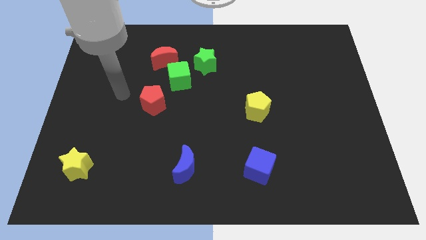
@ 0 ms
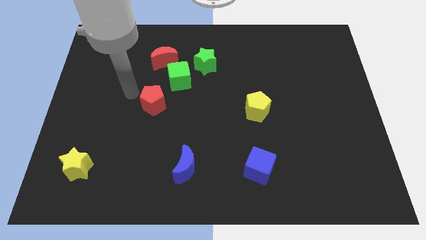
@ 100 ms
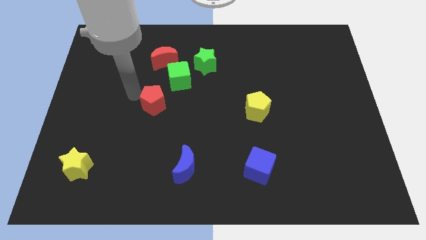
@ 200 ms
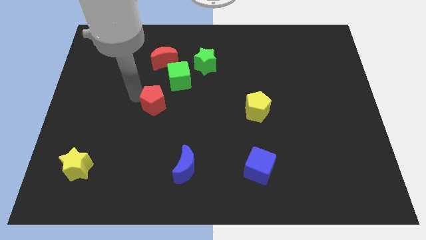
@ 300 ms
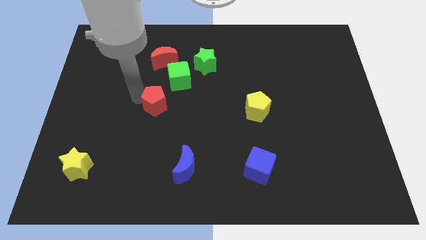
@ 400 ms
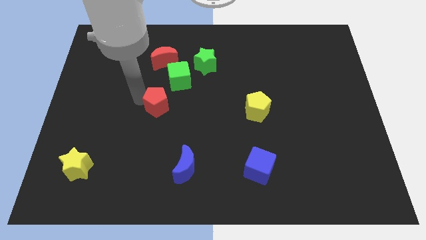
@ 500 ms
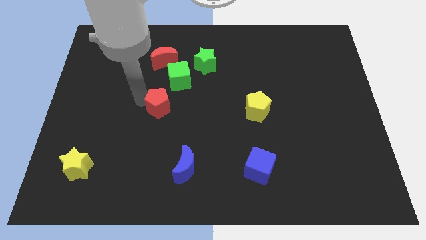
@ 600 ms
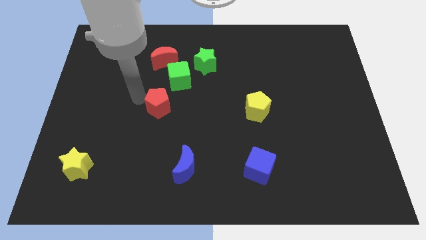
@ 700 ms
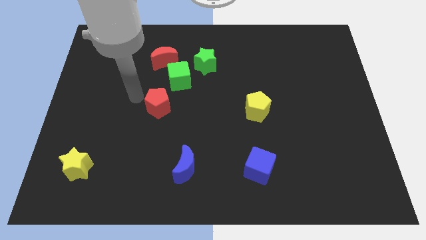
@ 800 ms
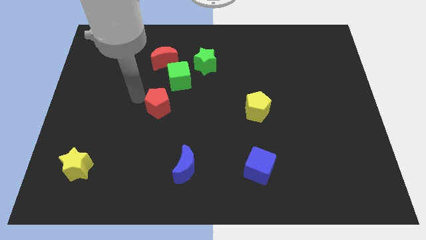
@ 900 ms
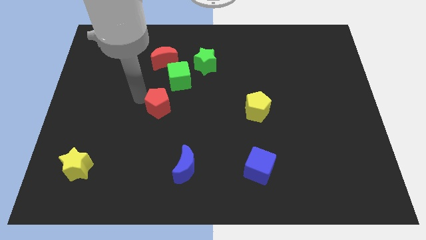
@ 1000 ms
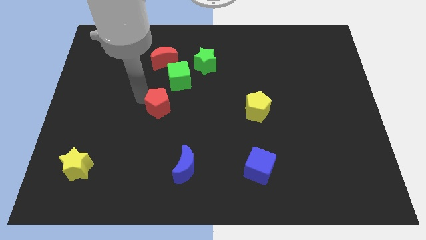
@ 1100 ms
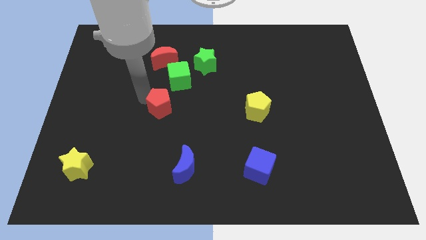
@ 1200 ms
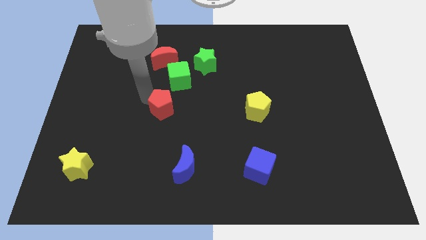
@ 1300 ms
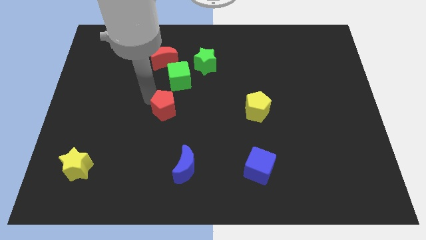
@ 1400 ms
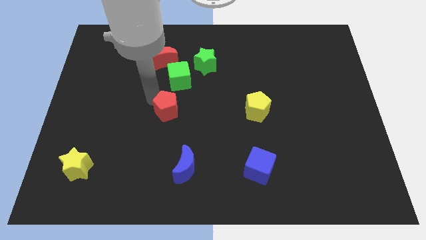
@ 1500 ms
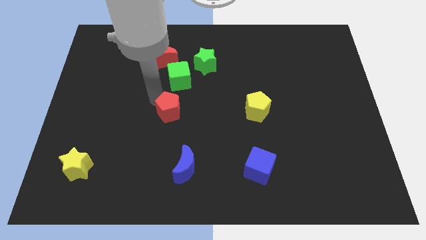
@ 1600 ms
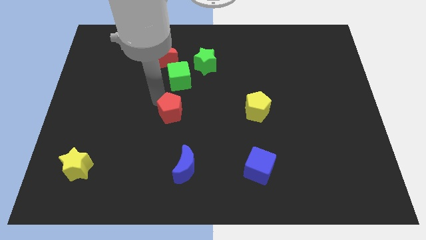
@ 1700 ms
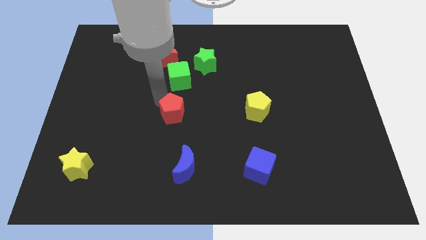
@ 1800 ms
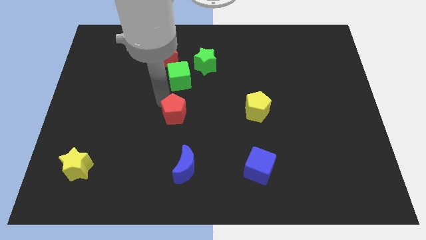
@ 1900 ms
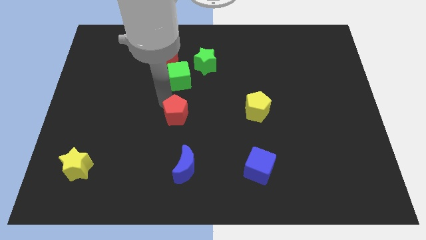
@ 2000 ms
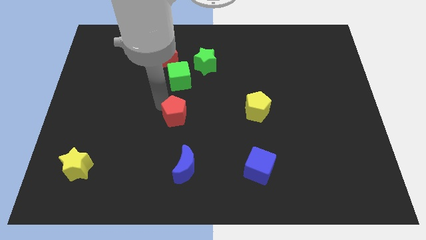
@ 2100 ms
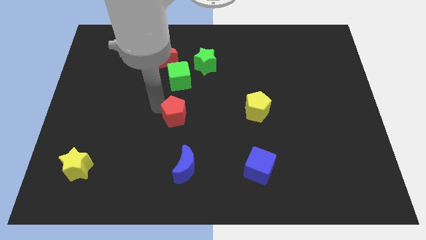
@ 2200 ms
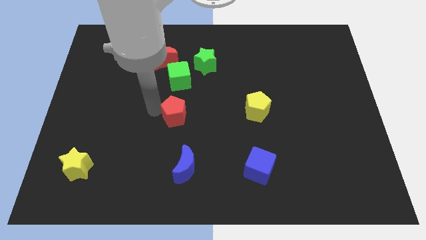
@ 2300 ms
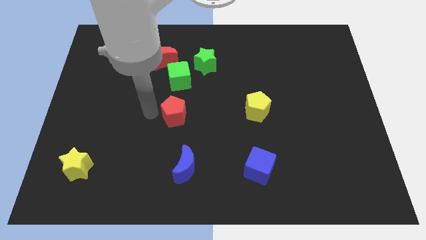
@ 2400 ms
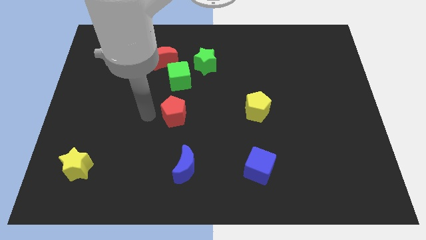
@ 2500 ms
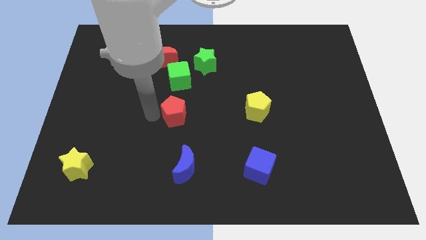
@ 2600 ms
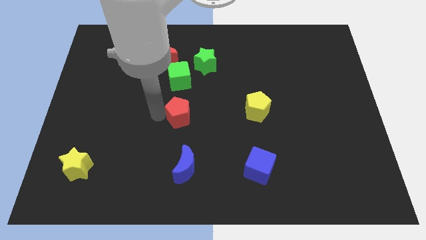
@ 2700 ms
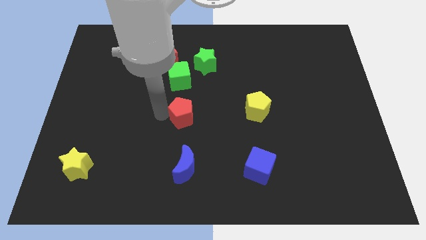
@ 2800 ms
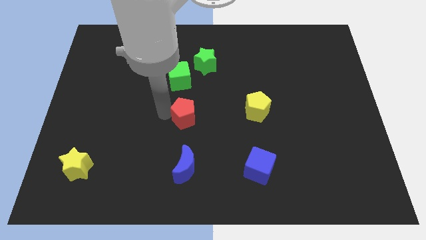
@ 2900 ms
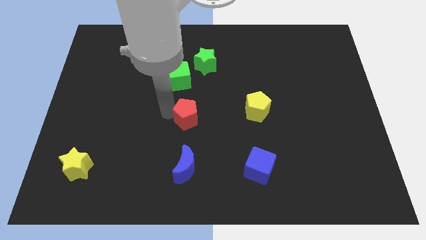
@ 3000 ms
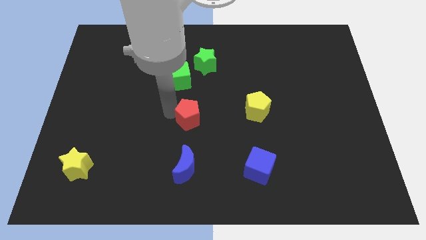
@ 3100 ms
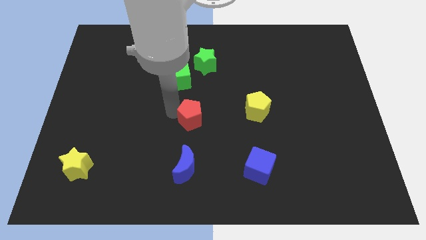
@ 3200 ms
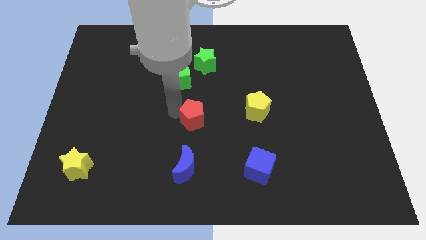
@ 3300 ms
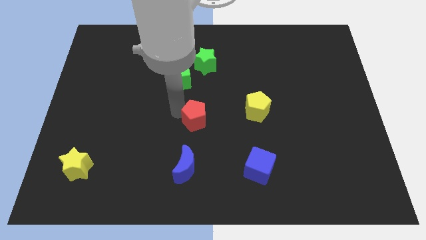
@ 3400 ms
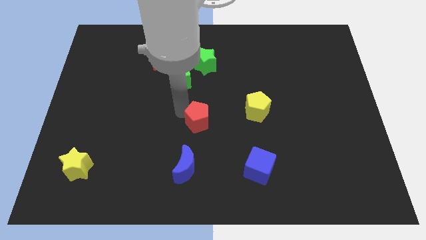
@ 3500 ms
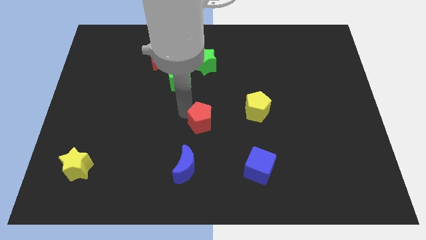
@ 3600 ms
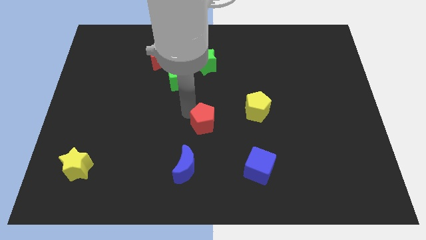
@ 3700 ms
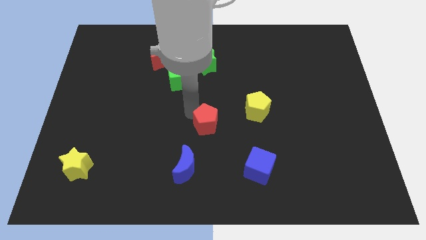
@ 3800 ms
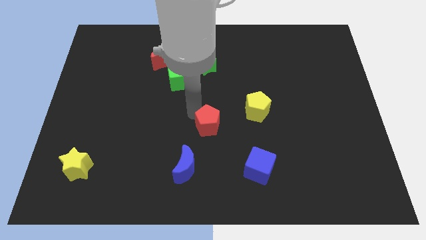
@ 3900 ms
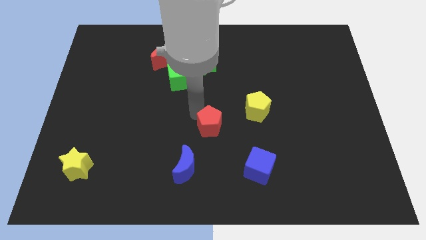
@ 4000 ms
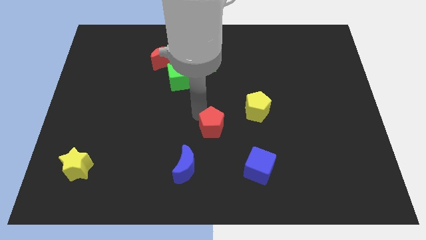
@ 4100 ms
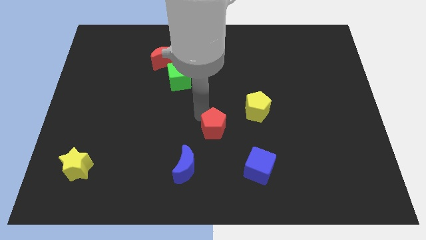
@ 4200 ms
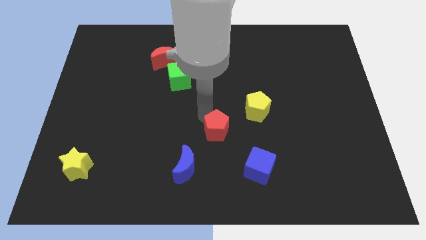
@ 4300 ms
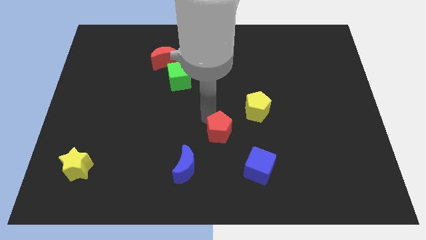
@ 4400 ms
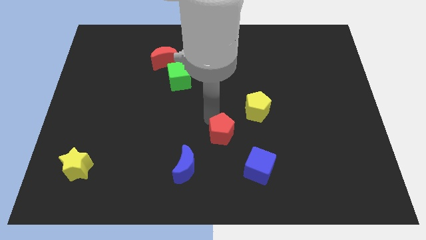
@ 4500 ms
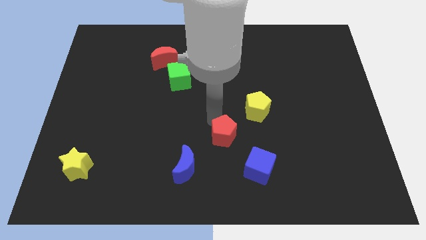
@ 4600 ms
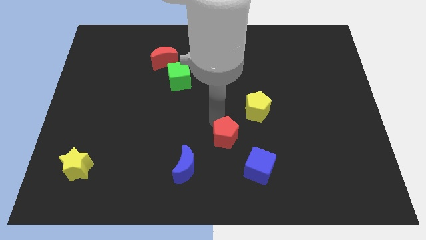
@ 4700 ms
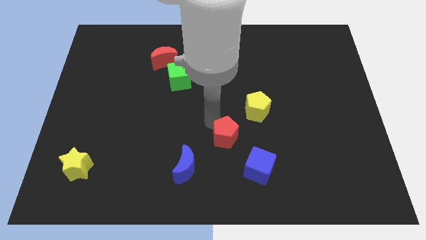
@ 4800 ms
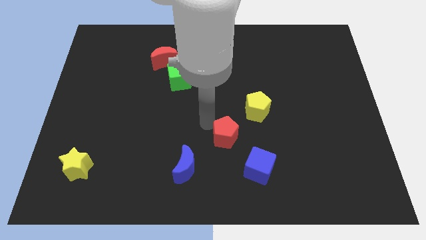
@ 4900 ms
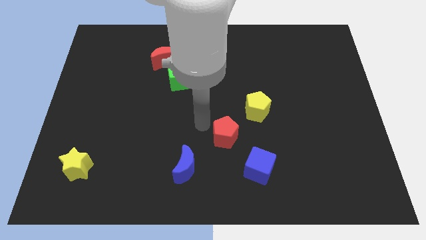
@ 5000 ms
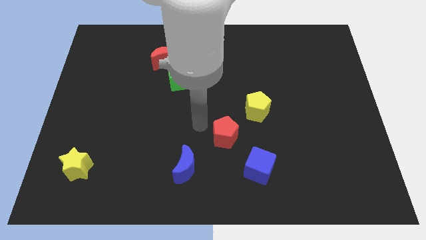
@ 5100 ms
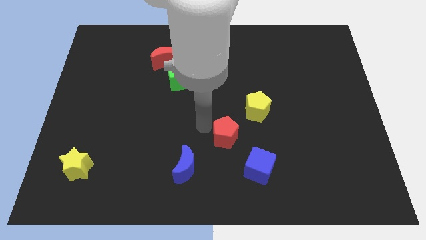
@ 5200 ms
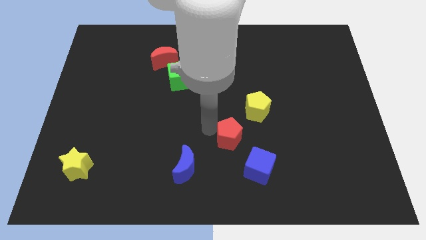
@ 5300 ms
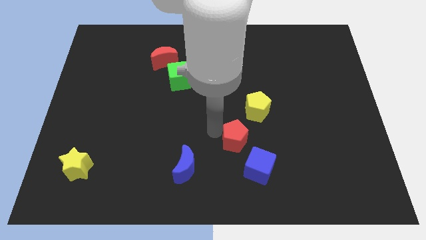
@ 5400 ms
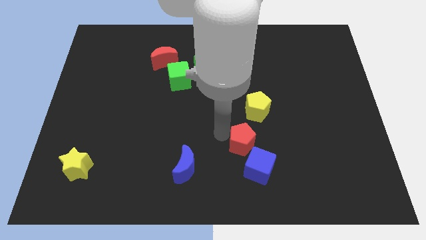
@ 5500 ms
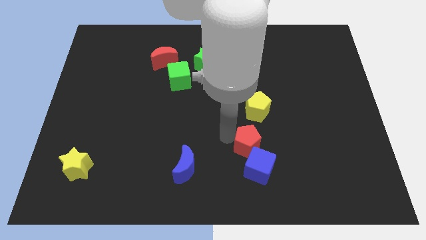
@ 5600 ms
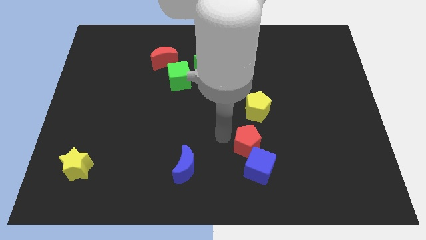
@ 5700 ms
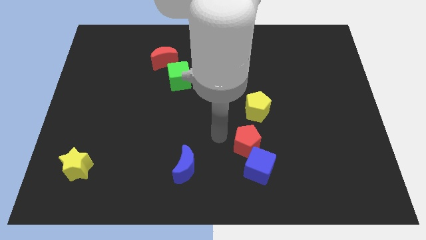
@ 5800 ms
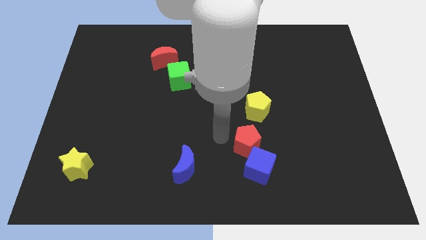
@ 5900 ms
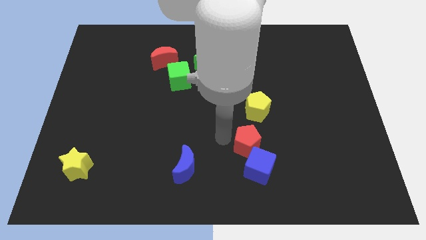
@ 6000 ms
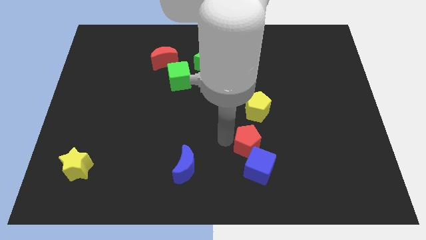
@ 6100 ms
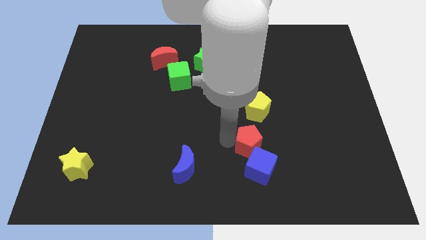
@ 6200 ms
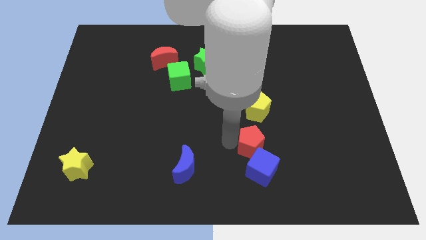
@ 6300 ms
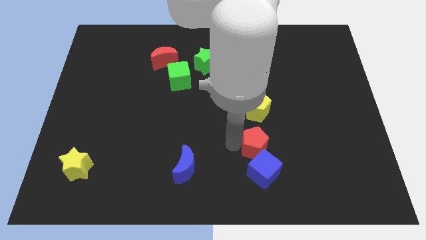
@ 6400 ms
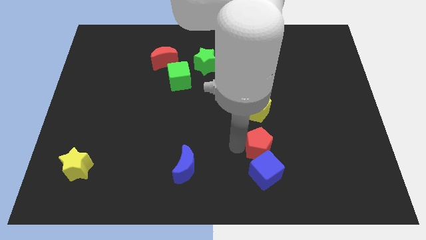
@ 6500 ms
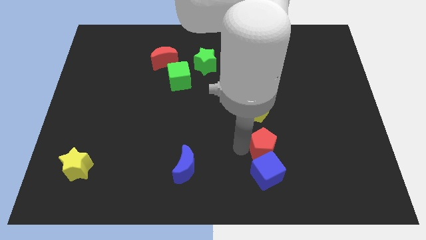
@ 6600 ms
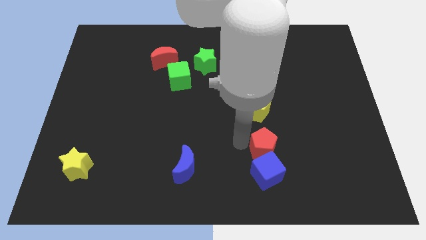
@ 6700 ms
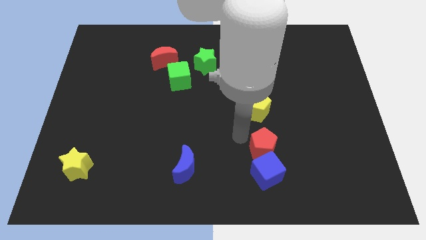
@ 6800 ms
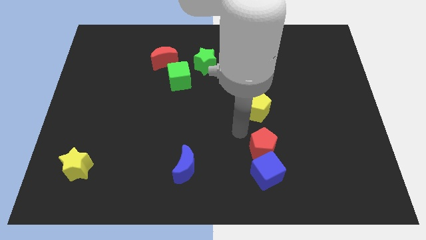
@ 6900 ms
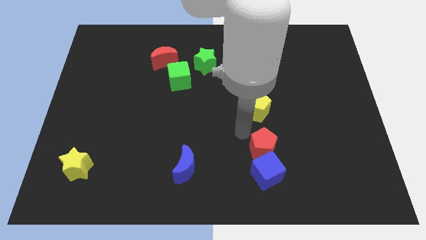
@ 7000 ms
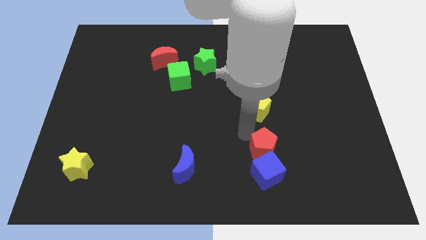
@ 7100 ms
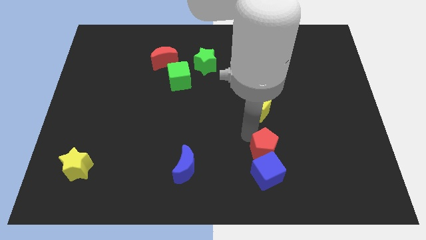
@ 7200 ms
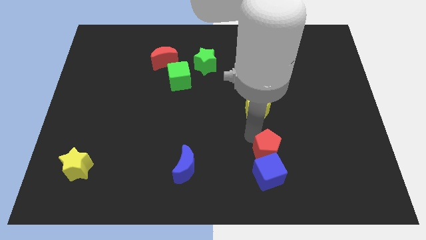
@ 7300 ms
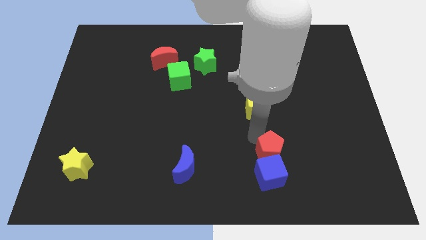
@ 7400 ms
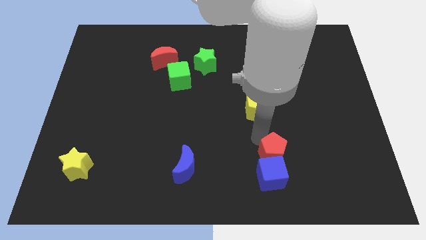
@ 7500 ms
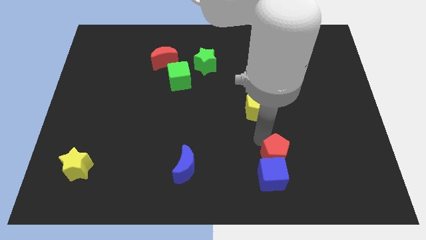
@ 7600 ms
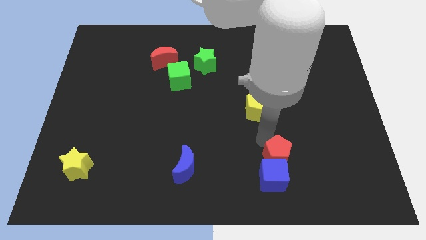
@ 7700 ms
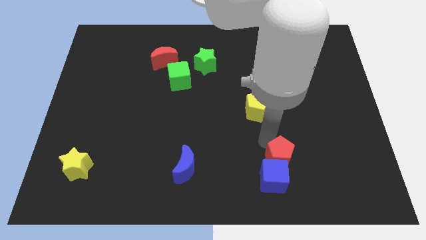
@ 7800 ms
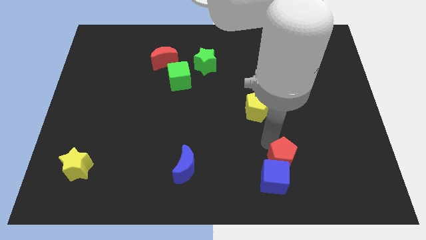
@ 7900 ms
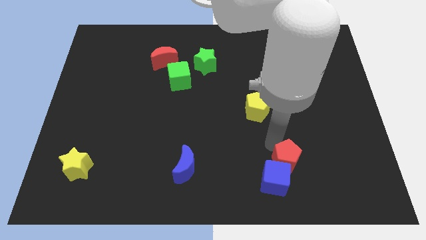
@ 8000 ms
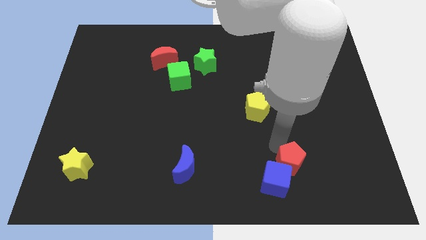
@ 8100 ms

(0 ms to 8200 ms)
move the red pentagon right of the blue cube
